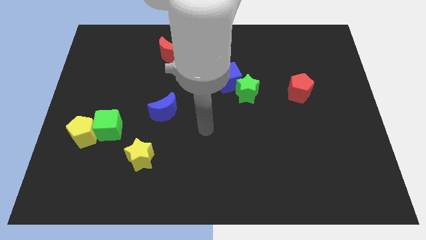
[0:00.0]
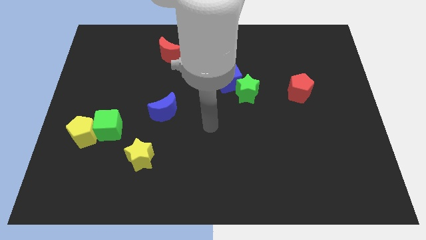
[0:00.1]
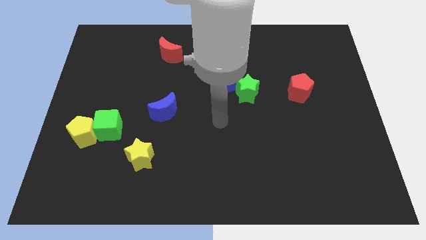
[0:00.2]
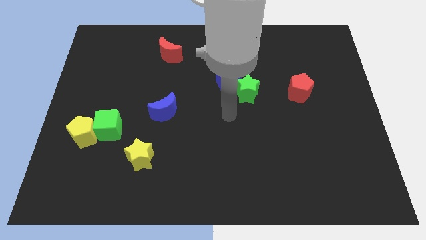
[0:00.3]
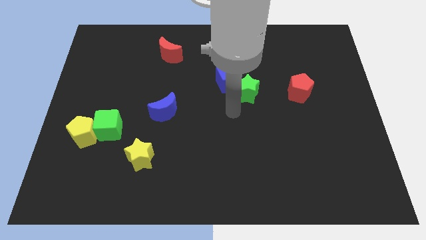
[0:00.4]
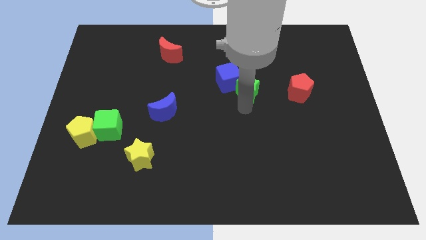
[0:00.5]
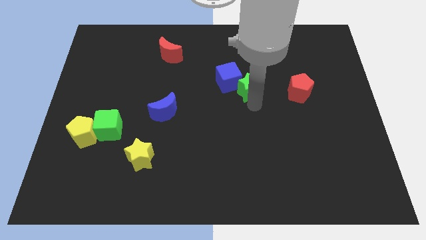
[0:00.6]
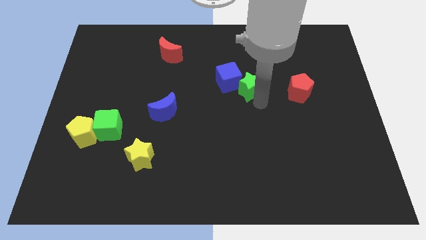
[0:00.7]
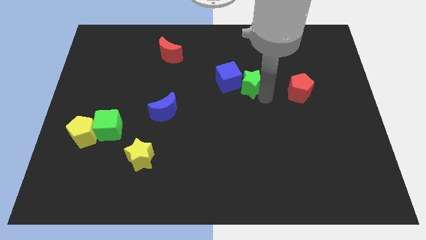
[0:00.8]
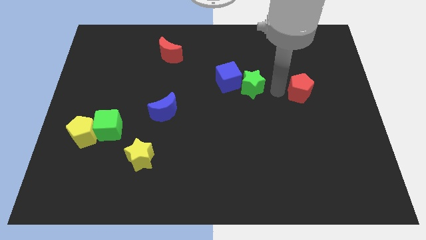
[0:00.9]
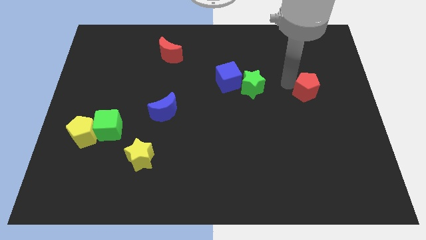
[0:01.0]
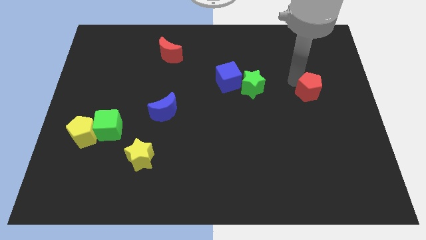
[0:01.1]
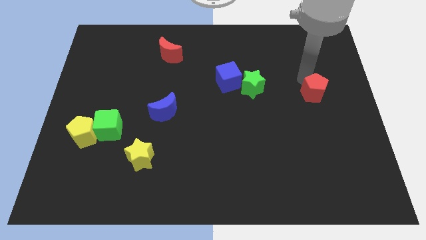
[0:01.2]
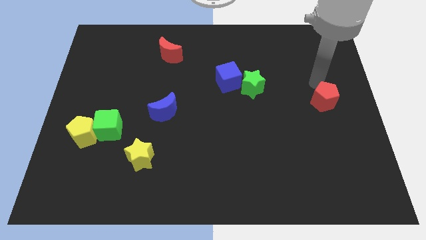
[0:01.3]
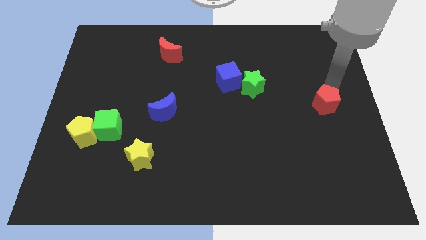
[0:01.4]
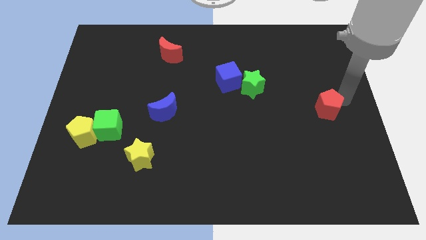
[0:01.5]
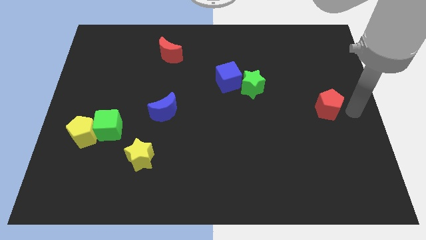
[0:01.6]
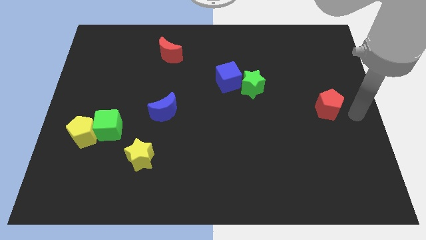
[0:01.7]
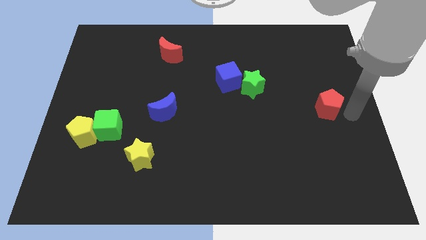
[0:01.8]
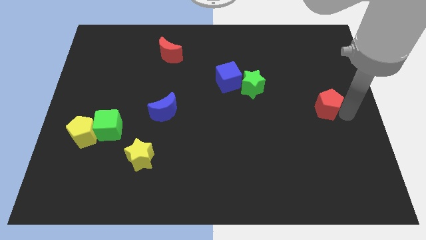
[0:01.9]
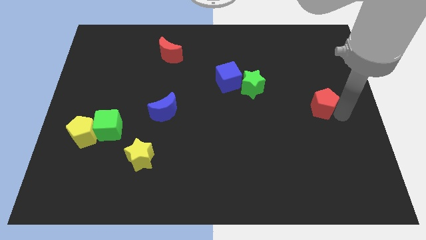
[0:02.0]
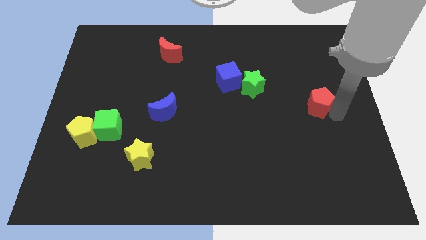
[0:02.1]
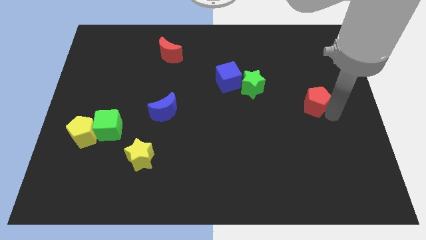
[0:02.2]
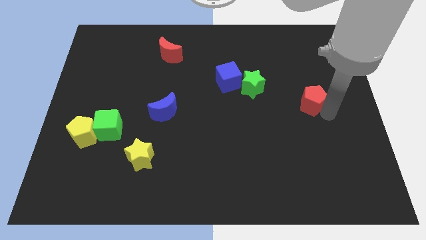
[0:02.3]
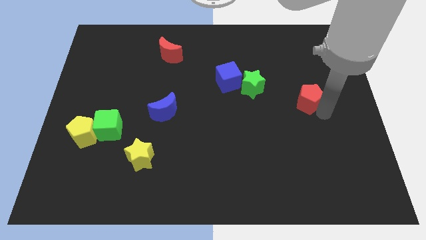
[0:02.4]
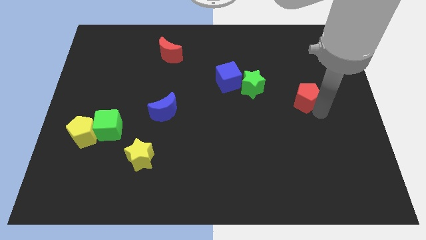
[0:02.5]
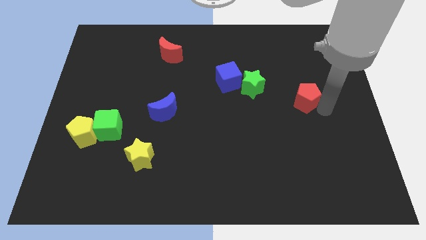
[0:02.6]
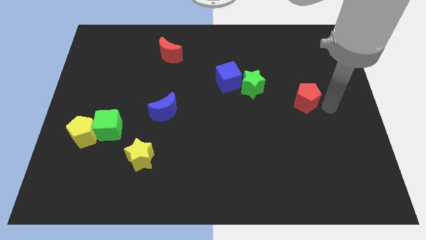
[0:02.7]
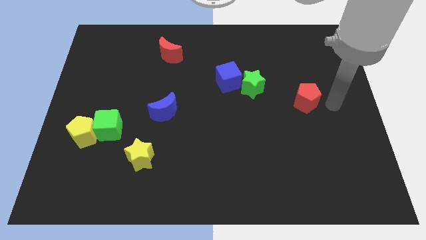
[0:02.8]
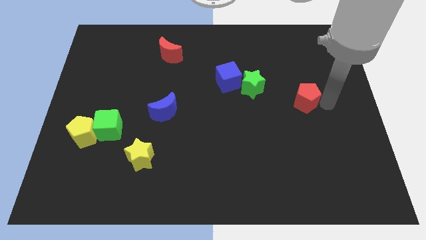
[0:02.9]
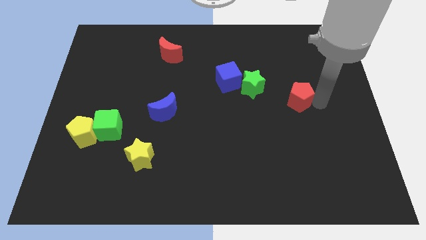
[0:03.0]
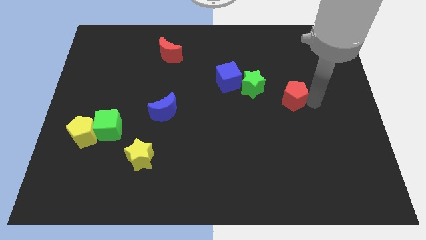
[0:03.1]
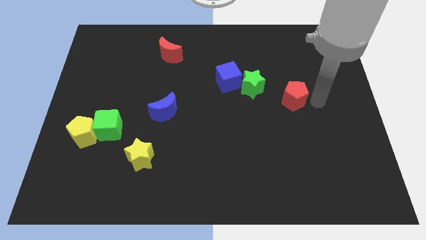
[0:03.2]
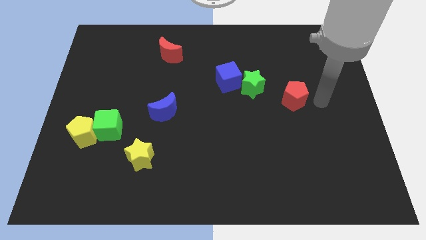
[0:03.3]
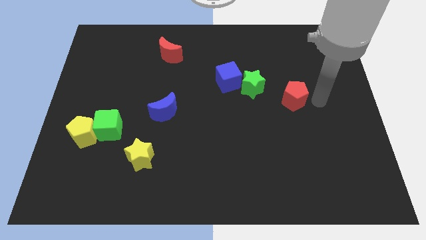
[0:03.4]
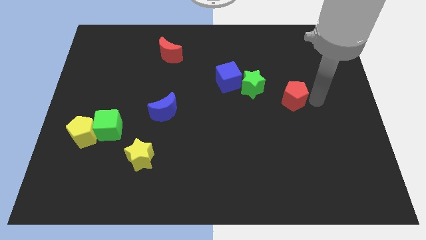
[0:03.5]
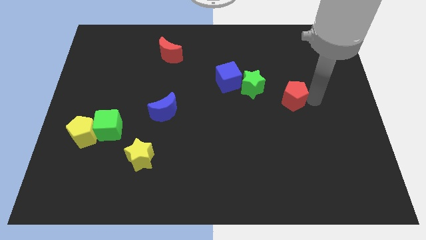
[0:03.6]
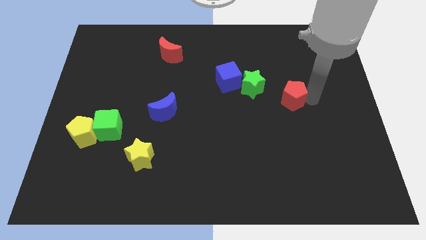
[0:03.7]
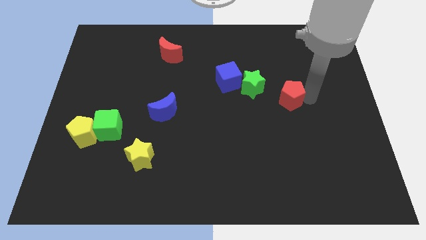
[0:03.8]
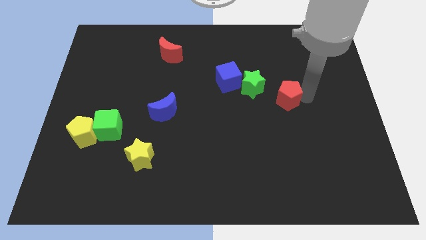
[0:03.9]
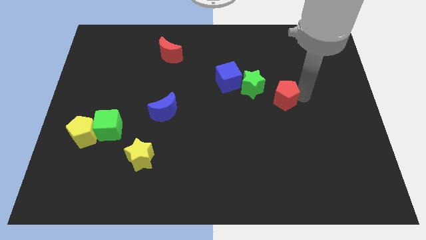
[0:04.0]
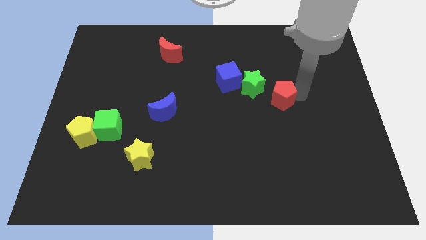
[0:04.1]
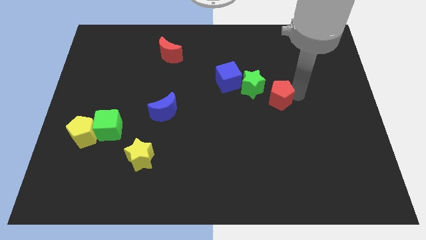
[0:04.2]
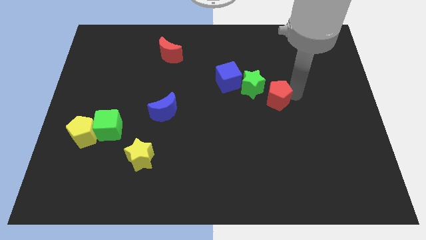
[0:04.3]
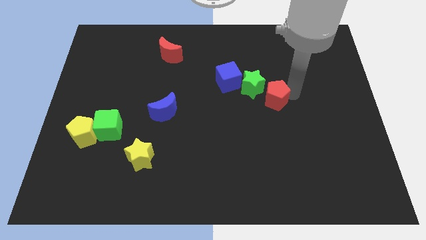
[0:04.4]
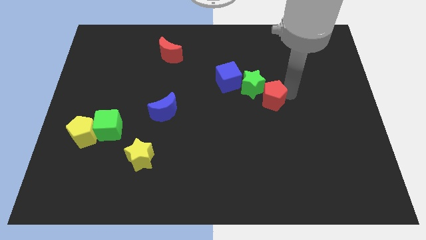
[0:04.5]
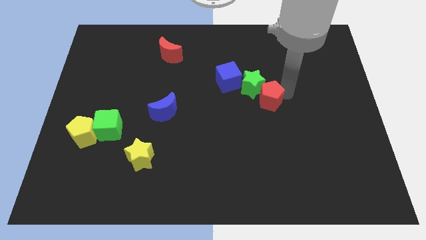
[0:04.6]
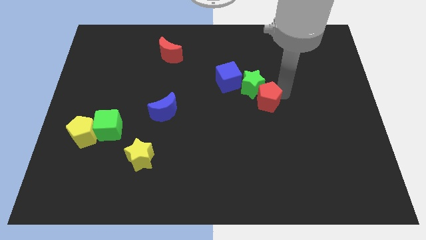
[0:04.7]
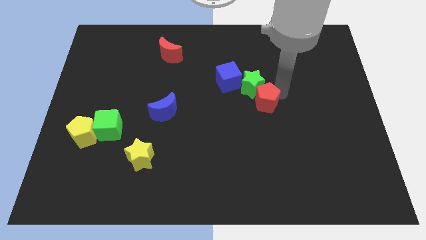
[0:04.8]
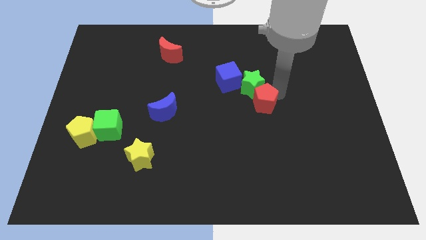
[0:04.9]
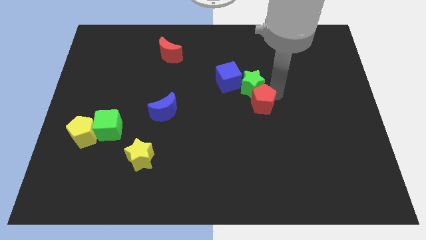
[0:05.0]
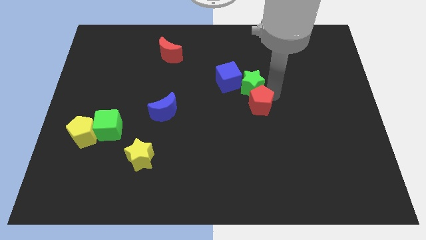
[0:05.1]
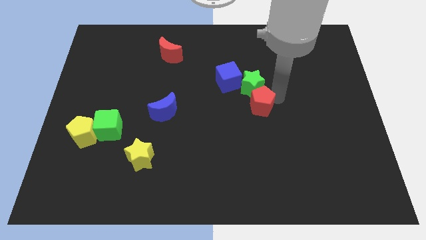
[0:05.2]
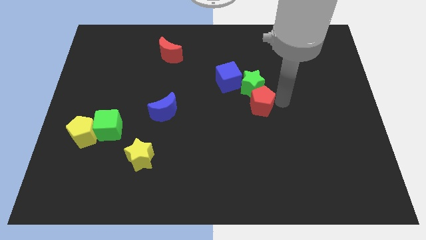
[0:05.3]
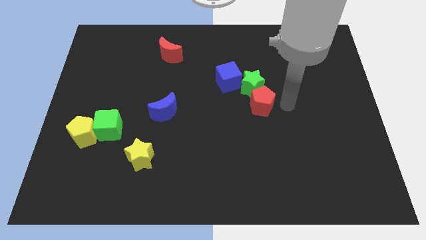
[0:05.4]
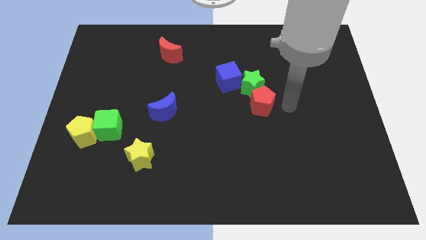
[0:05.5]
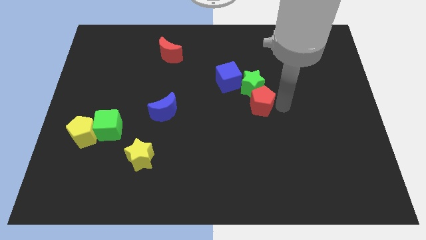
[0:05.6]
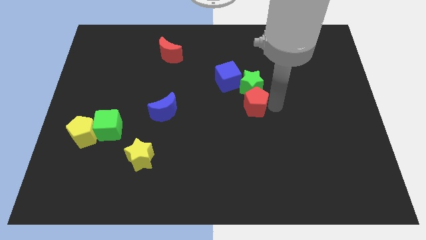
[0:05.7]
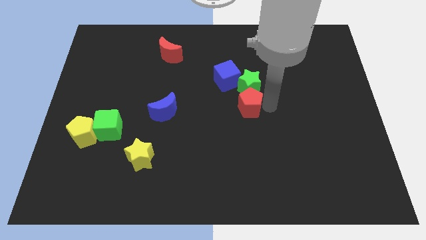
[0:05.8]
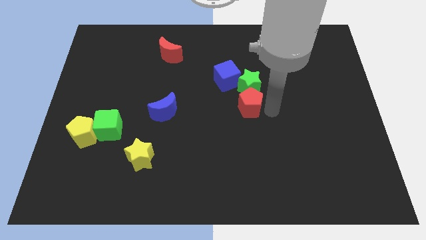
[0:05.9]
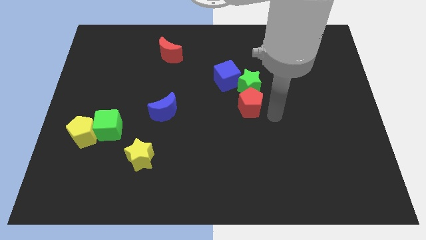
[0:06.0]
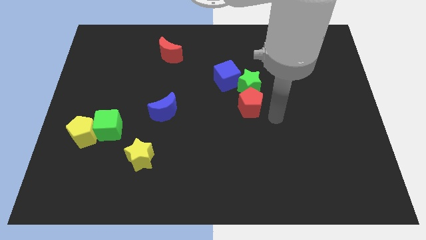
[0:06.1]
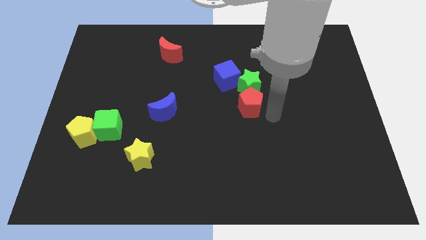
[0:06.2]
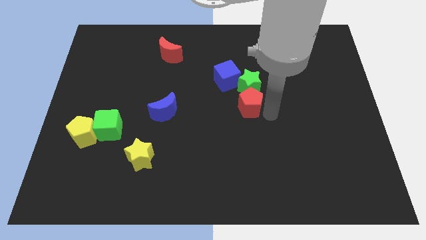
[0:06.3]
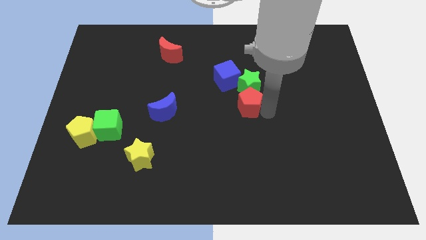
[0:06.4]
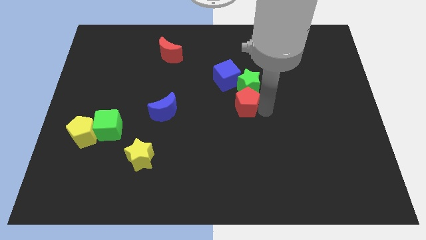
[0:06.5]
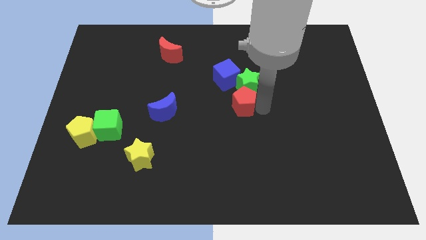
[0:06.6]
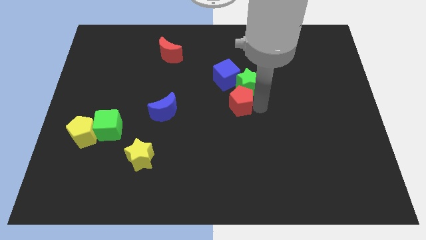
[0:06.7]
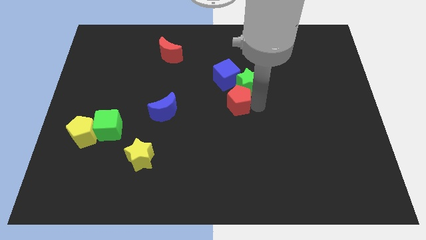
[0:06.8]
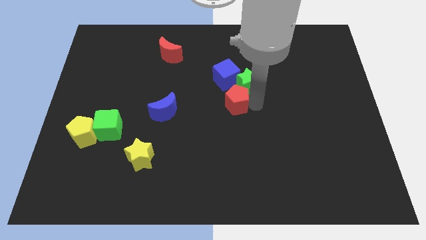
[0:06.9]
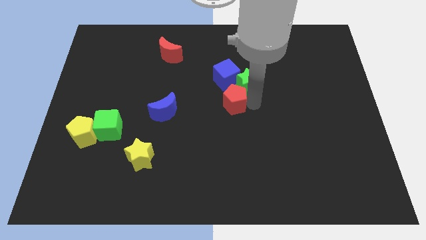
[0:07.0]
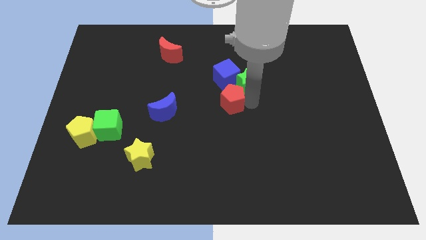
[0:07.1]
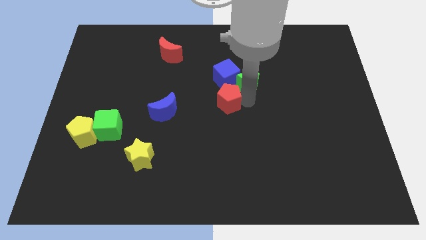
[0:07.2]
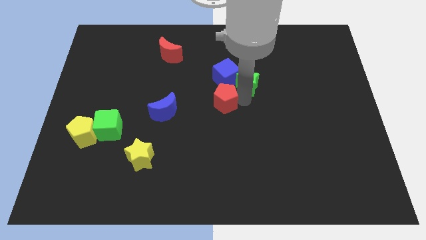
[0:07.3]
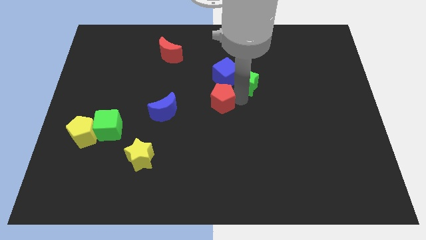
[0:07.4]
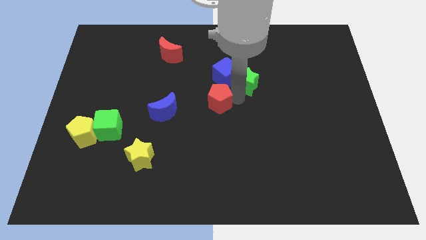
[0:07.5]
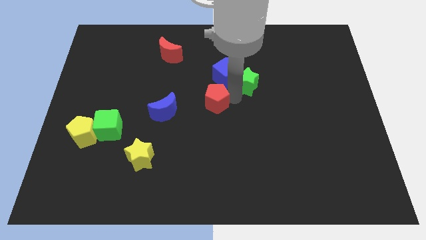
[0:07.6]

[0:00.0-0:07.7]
move the red pentagon to the left

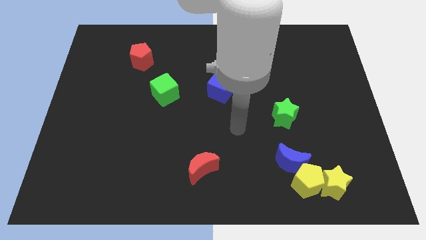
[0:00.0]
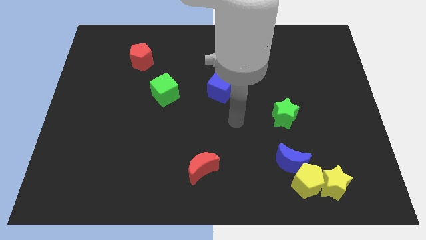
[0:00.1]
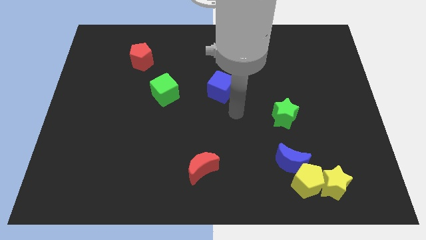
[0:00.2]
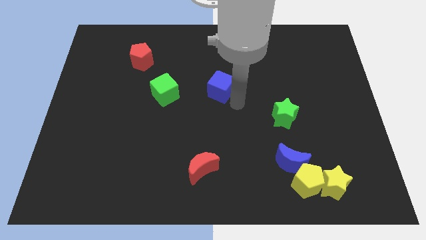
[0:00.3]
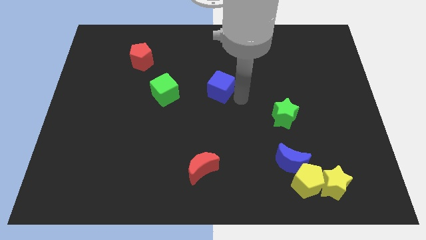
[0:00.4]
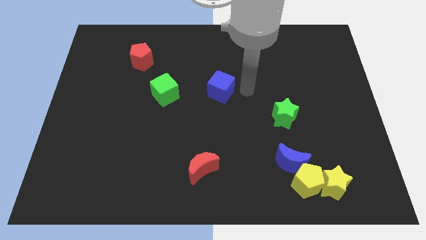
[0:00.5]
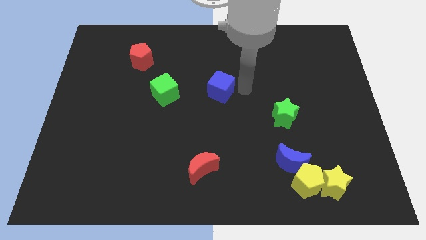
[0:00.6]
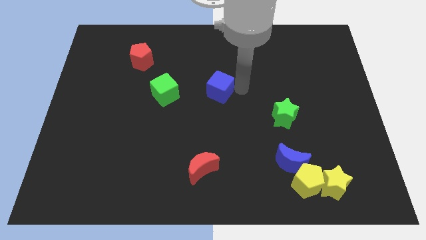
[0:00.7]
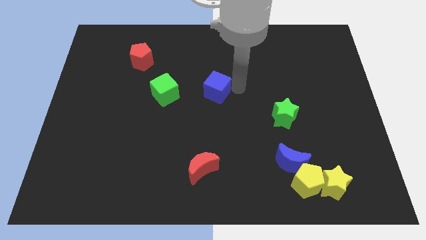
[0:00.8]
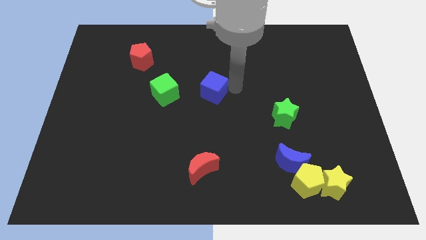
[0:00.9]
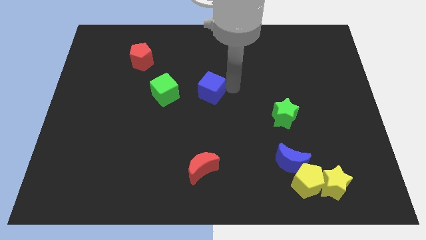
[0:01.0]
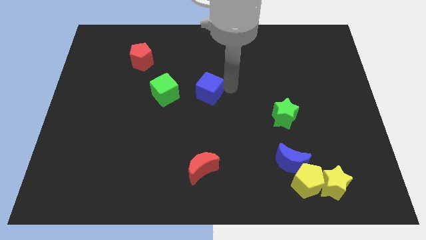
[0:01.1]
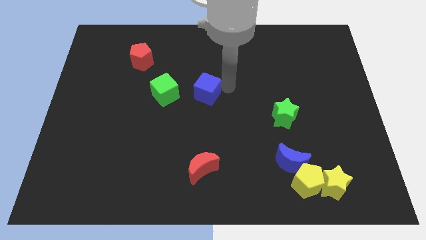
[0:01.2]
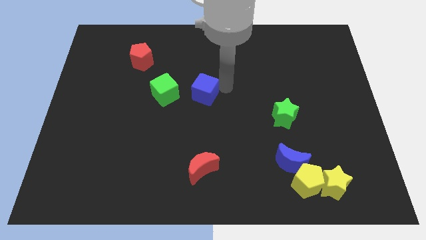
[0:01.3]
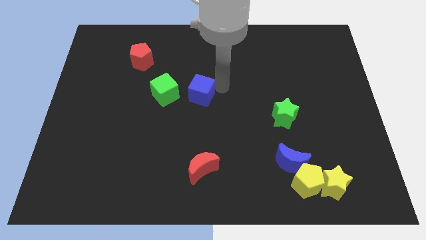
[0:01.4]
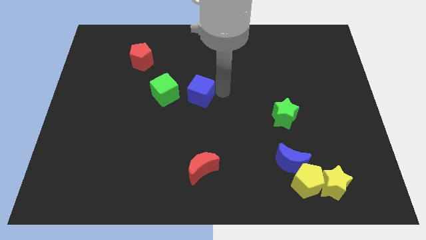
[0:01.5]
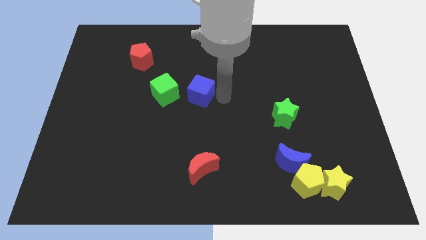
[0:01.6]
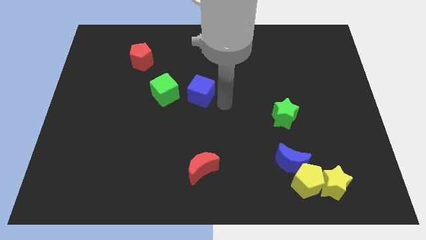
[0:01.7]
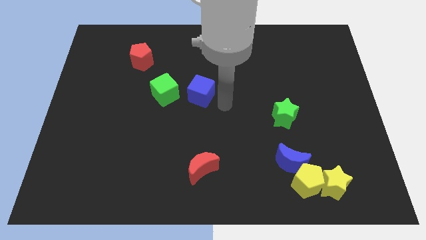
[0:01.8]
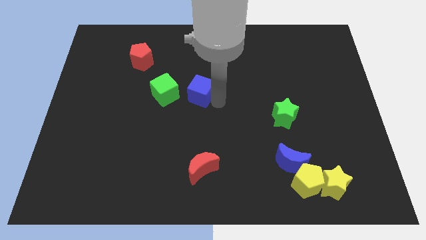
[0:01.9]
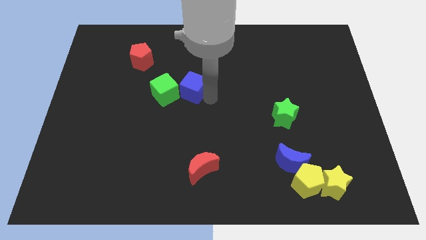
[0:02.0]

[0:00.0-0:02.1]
slide the blue cube left slightly
